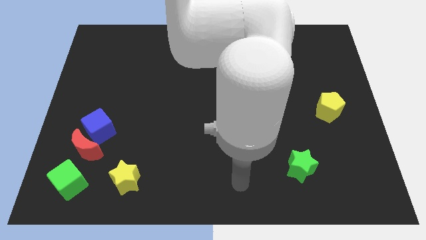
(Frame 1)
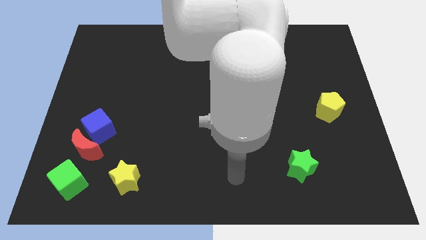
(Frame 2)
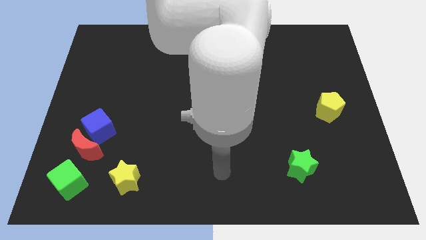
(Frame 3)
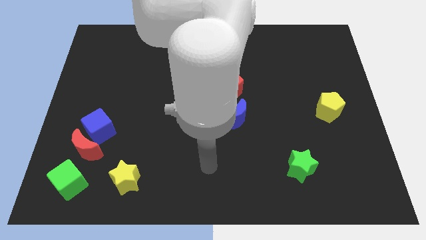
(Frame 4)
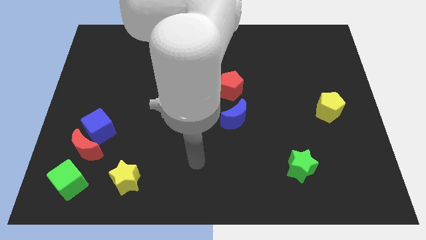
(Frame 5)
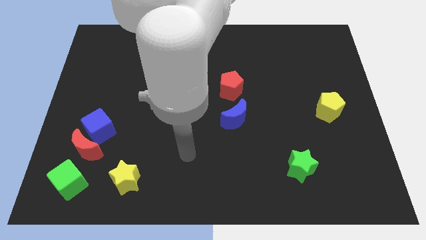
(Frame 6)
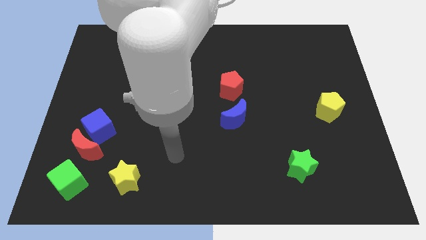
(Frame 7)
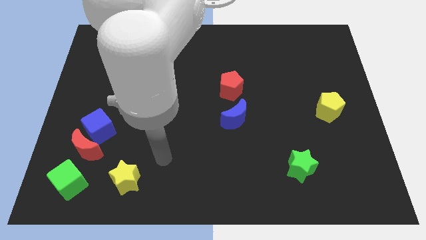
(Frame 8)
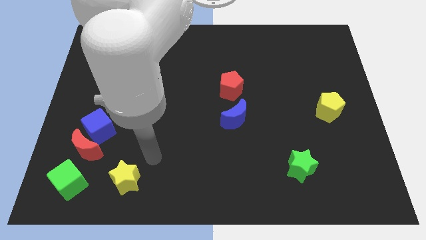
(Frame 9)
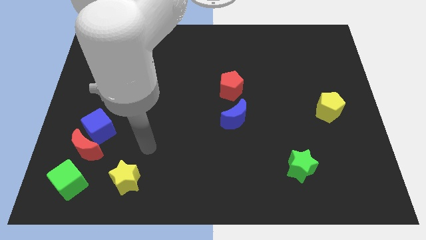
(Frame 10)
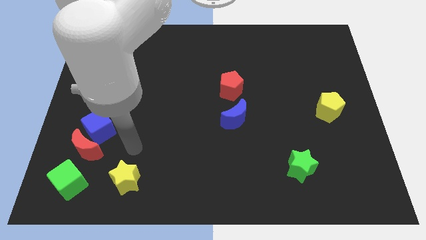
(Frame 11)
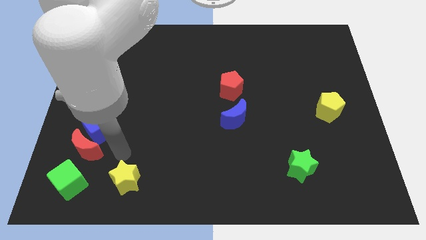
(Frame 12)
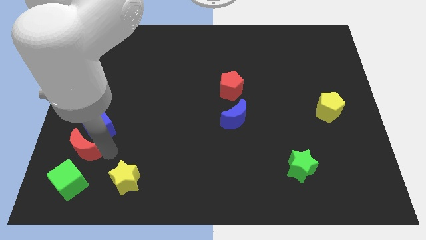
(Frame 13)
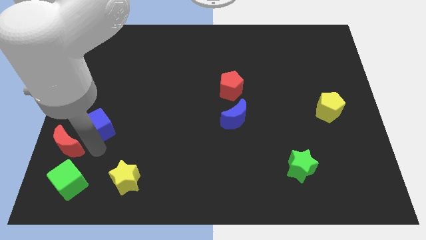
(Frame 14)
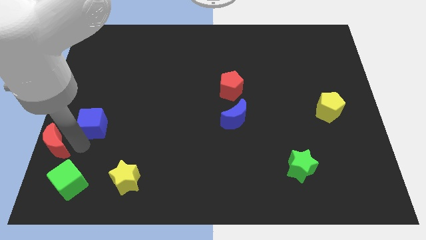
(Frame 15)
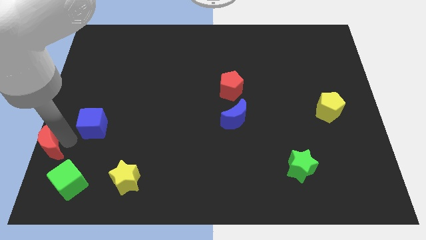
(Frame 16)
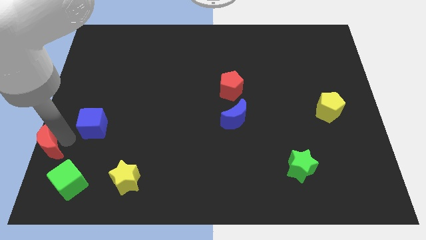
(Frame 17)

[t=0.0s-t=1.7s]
move the blue cube away from the red moon

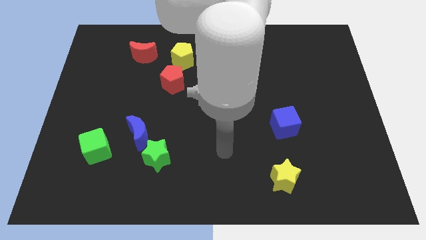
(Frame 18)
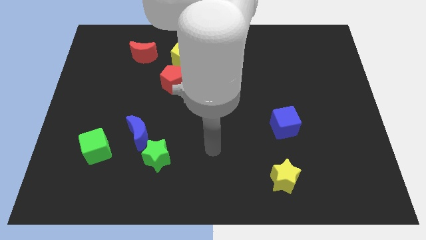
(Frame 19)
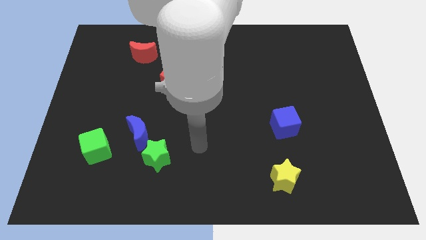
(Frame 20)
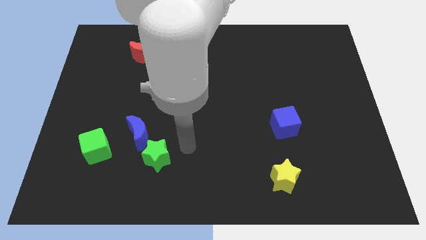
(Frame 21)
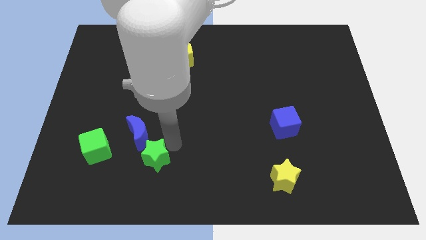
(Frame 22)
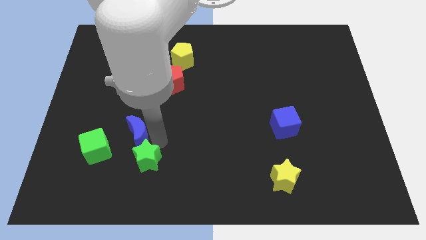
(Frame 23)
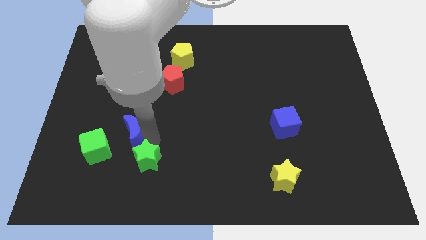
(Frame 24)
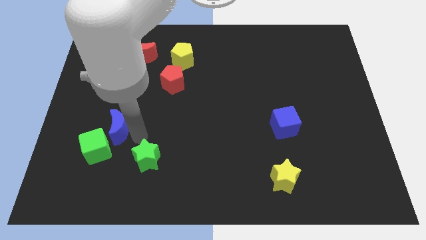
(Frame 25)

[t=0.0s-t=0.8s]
separate the green star from the blue moon

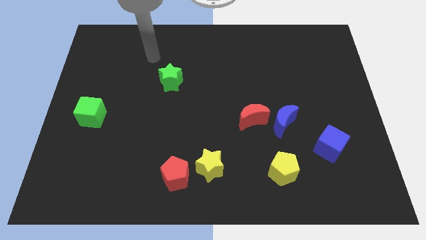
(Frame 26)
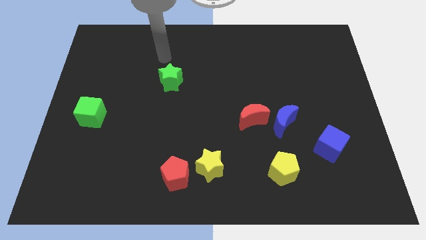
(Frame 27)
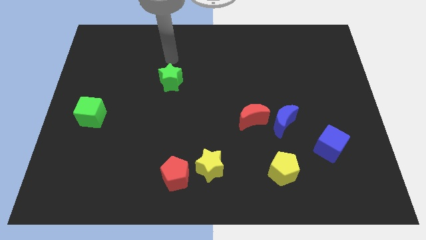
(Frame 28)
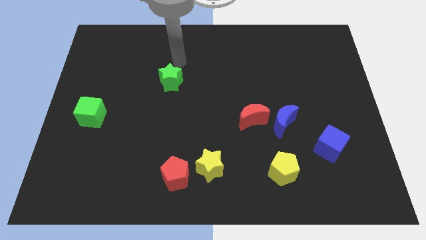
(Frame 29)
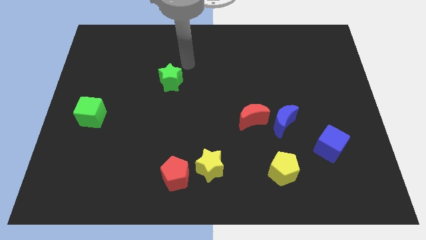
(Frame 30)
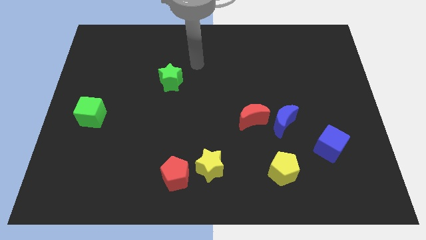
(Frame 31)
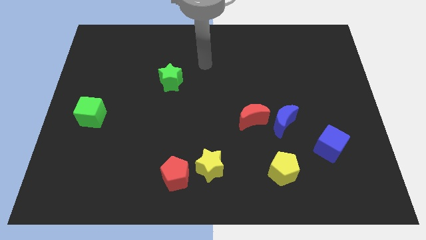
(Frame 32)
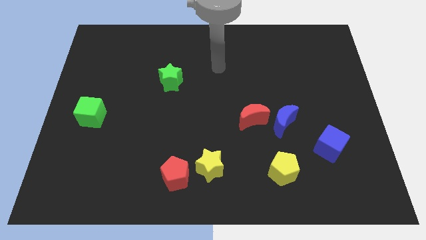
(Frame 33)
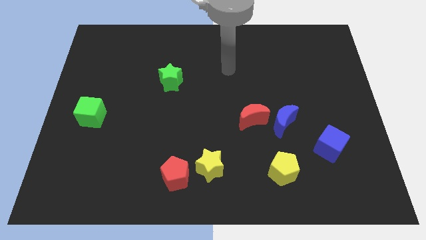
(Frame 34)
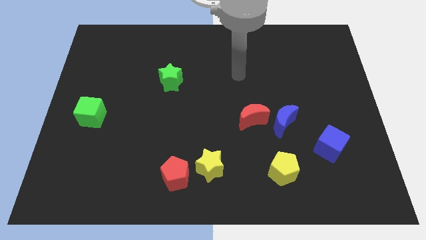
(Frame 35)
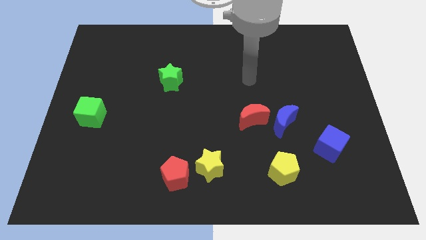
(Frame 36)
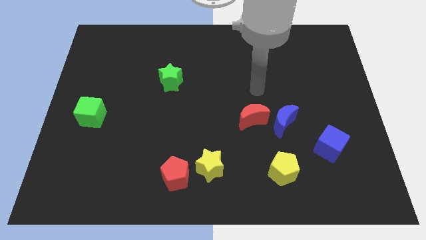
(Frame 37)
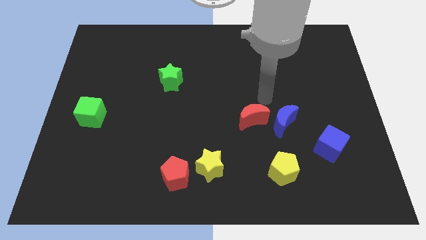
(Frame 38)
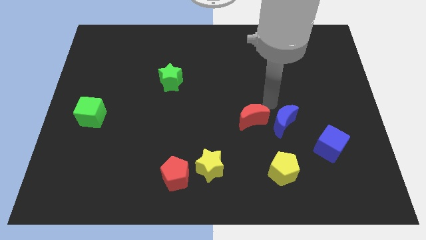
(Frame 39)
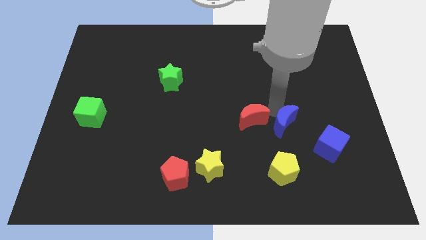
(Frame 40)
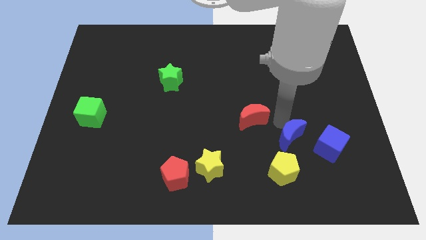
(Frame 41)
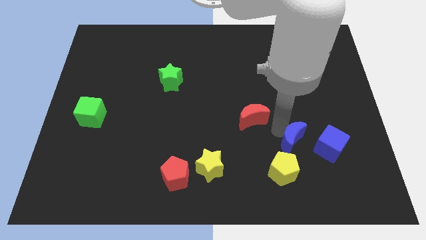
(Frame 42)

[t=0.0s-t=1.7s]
separate the red moon from the blue moon

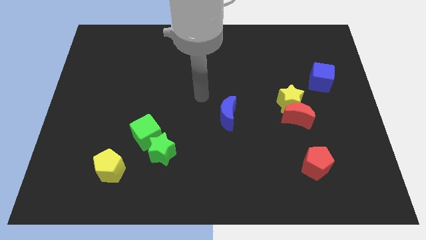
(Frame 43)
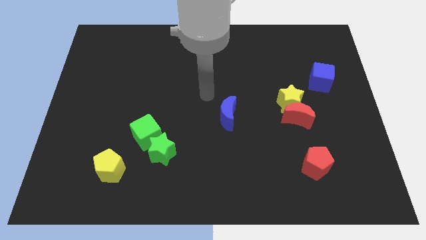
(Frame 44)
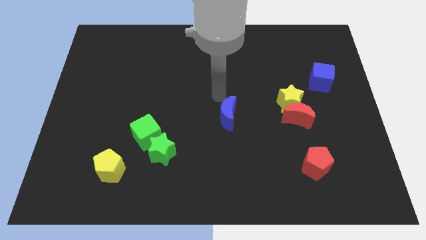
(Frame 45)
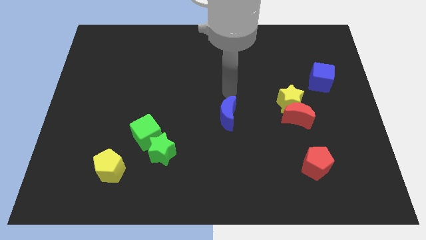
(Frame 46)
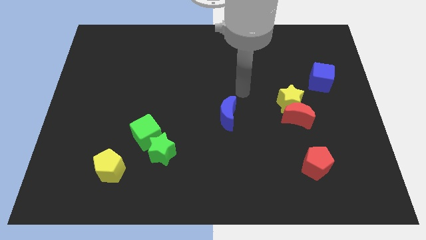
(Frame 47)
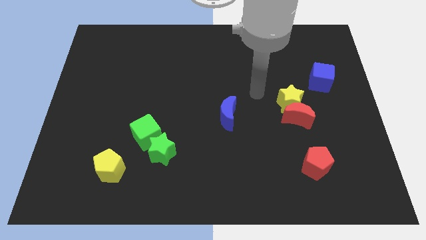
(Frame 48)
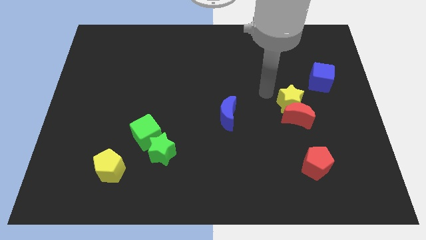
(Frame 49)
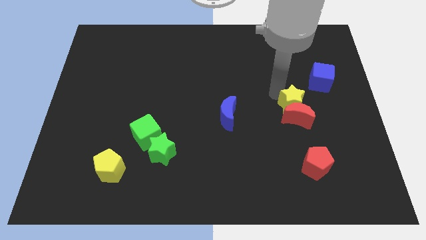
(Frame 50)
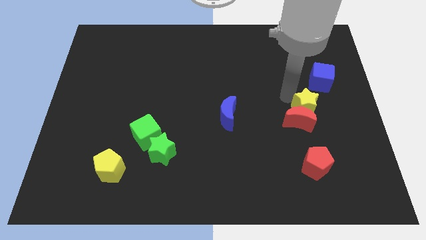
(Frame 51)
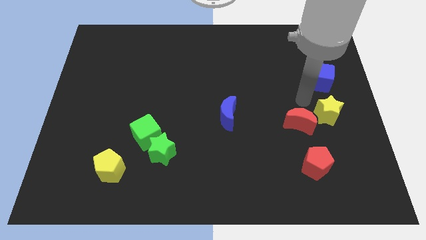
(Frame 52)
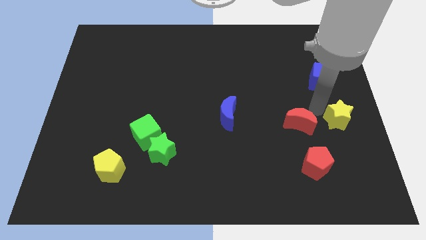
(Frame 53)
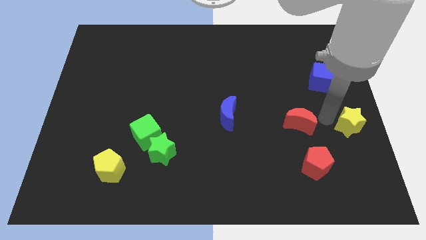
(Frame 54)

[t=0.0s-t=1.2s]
pull the red moon apart from the yellow star

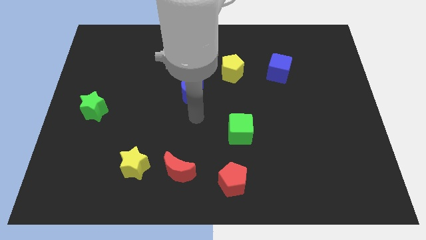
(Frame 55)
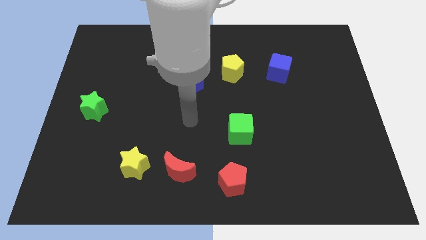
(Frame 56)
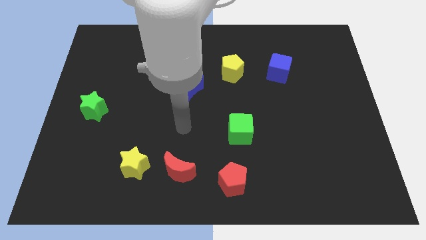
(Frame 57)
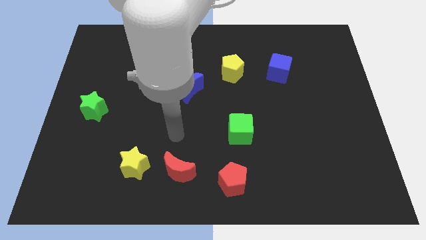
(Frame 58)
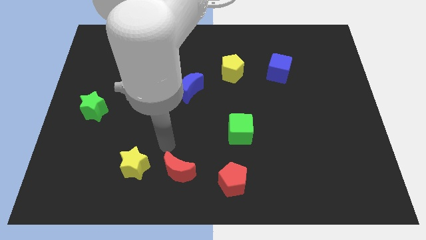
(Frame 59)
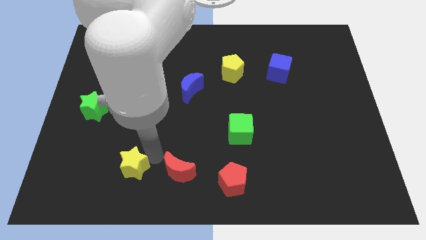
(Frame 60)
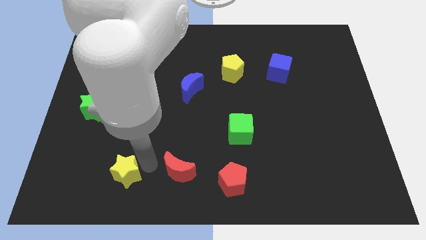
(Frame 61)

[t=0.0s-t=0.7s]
separate the red moon from the yellow star

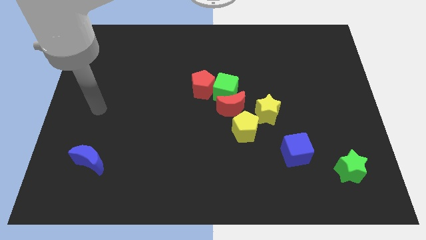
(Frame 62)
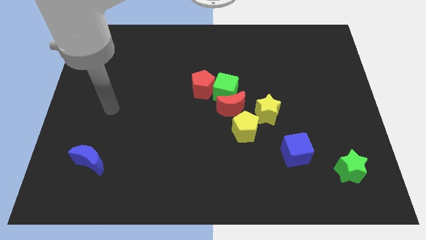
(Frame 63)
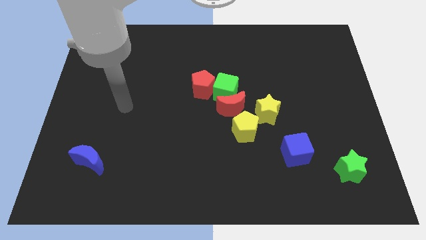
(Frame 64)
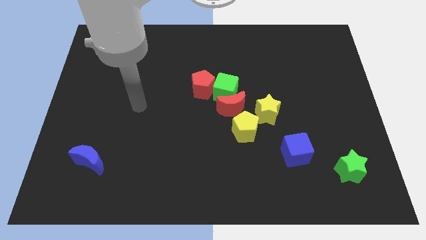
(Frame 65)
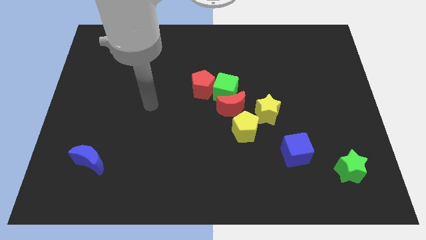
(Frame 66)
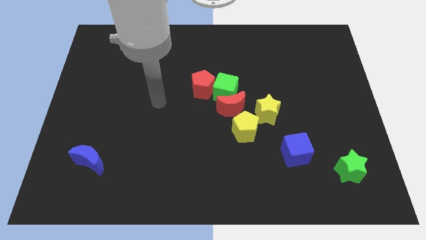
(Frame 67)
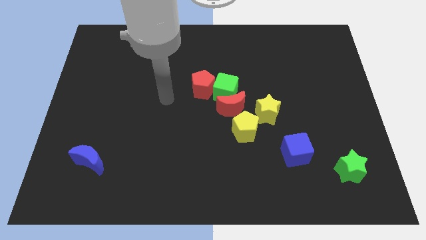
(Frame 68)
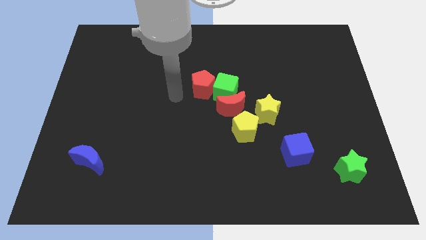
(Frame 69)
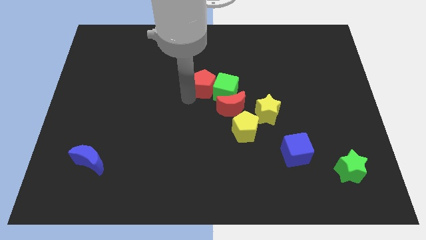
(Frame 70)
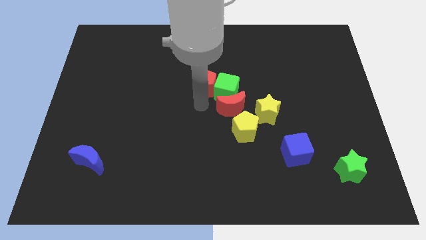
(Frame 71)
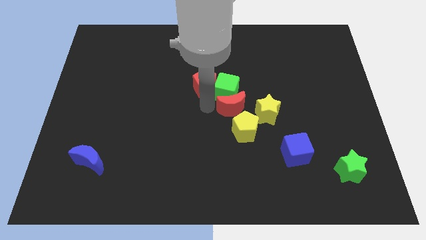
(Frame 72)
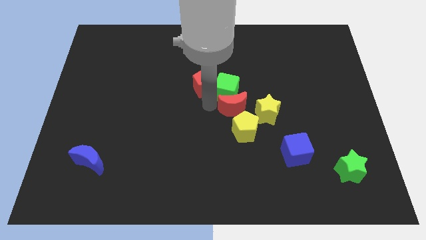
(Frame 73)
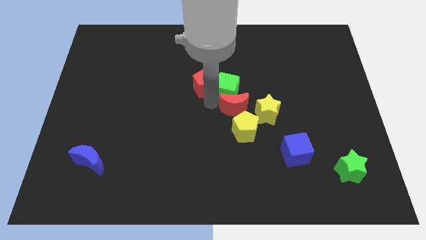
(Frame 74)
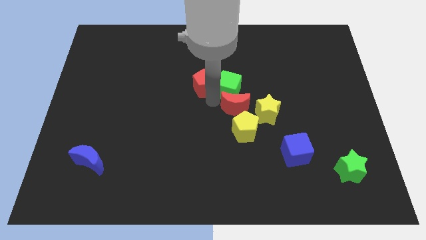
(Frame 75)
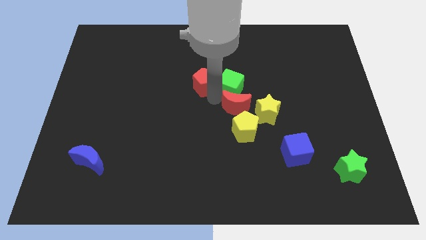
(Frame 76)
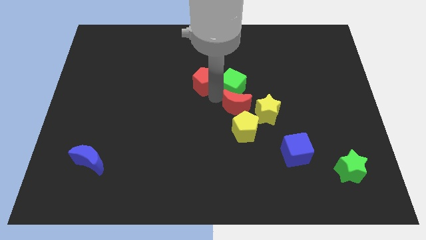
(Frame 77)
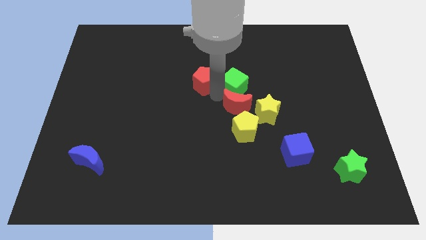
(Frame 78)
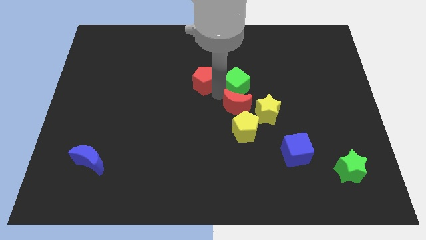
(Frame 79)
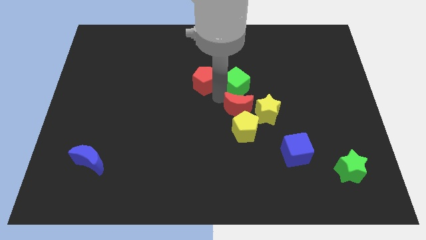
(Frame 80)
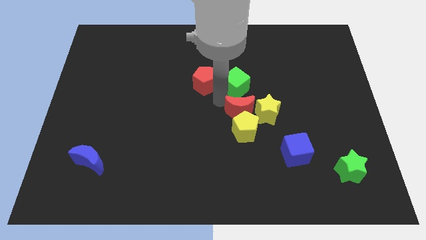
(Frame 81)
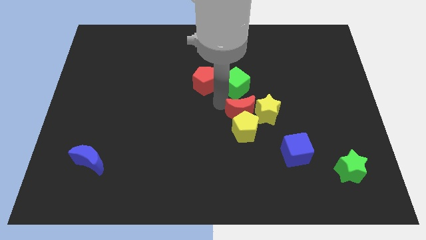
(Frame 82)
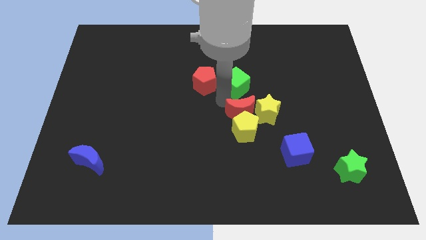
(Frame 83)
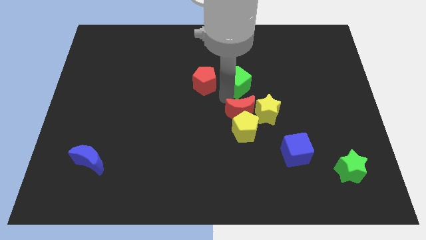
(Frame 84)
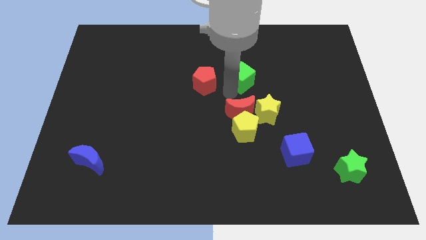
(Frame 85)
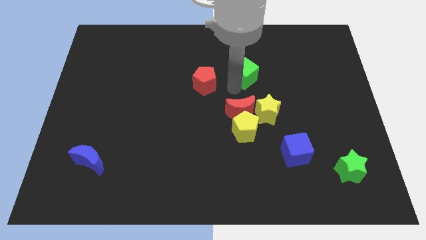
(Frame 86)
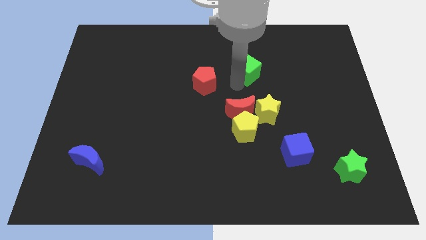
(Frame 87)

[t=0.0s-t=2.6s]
pull the green cube apart from the red moon and red pentagon

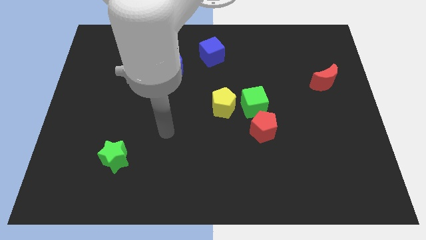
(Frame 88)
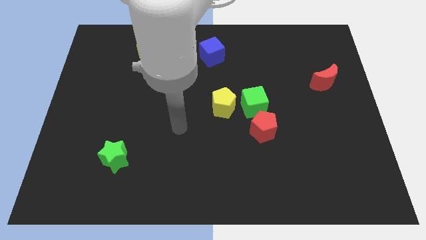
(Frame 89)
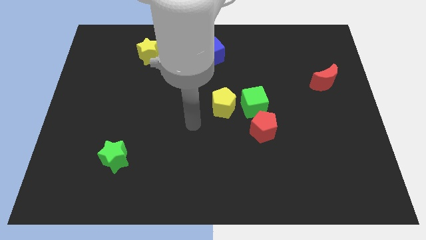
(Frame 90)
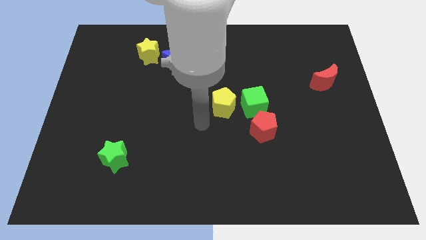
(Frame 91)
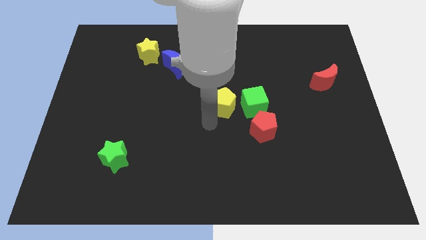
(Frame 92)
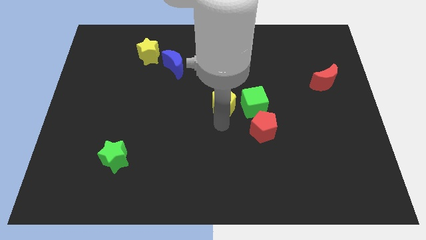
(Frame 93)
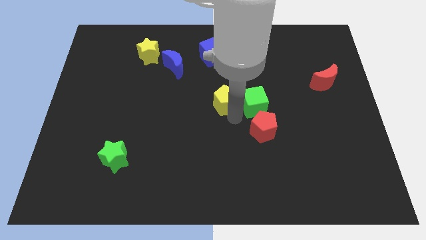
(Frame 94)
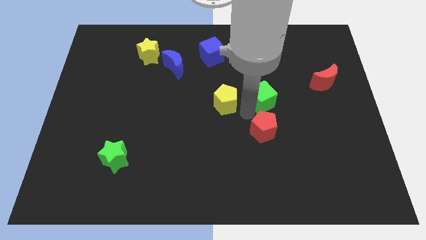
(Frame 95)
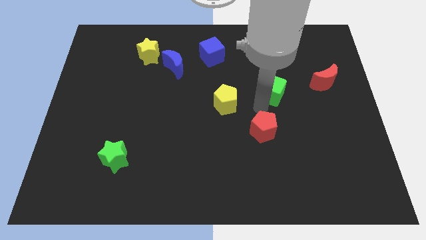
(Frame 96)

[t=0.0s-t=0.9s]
move the red pentagon away from the green cube
